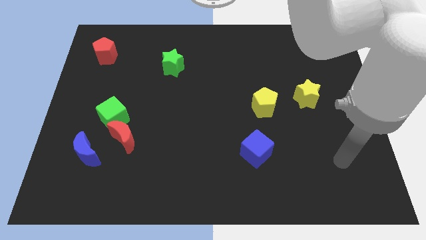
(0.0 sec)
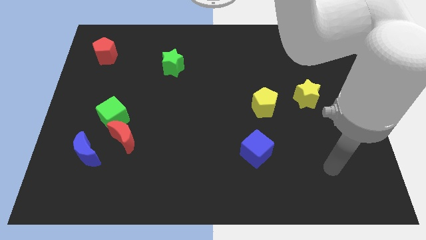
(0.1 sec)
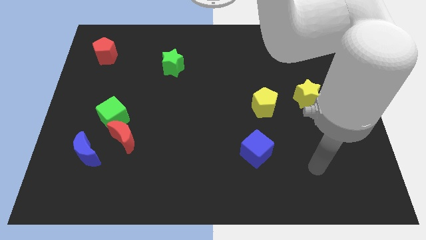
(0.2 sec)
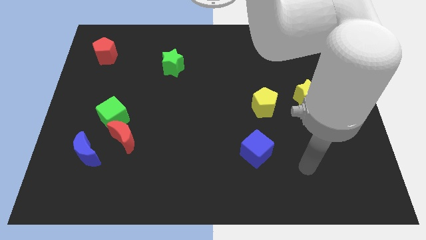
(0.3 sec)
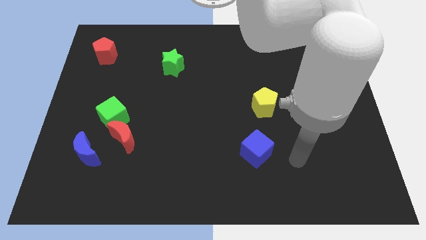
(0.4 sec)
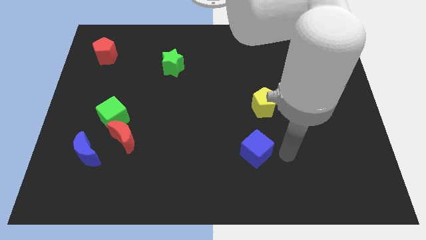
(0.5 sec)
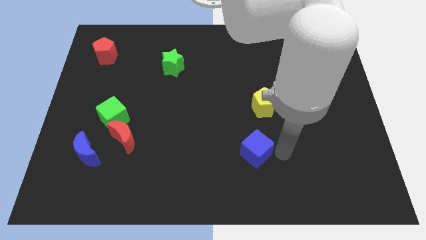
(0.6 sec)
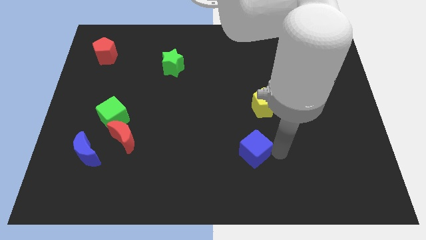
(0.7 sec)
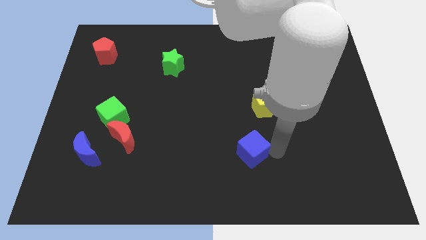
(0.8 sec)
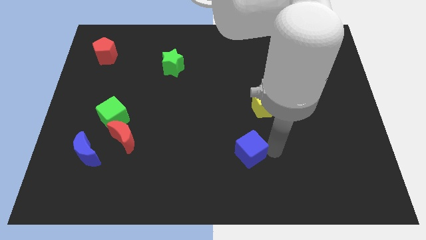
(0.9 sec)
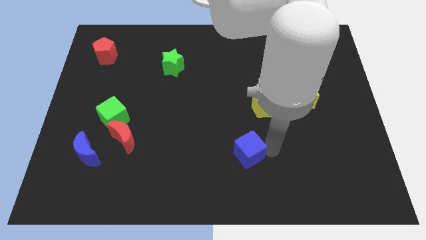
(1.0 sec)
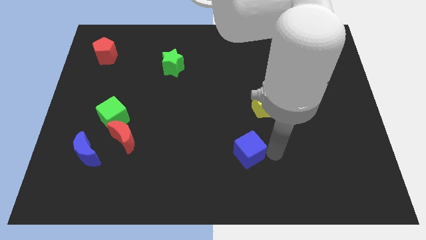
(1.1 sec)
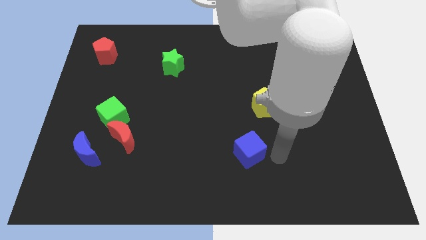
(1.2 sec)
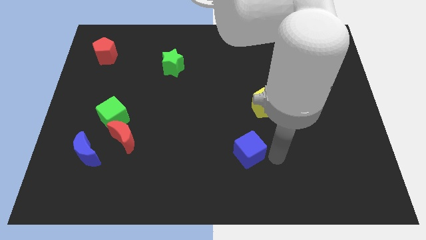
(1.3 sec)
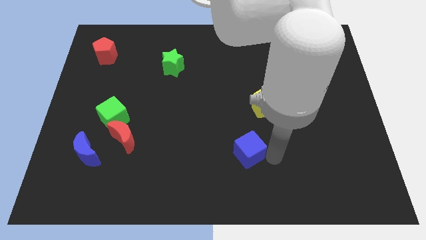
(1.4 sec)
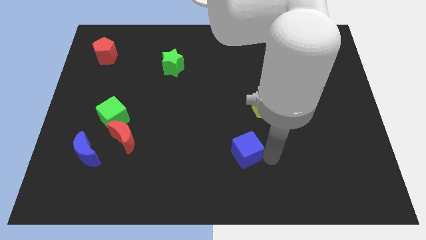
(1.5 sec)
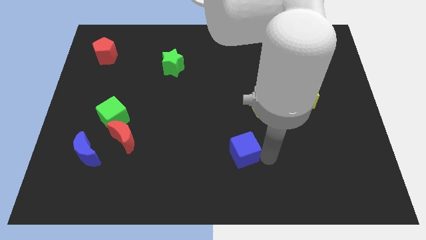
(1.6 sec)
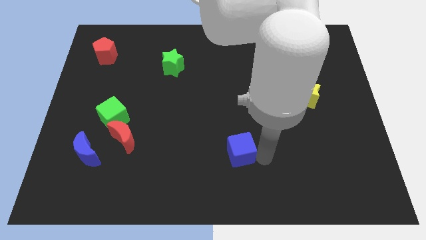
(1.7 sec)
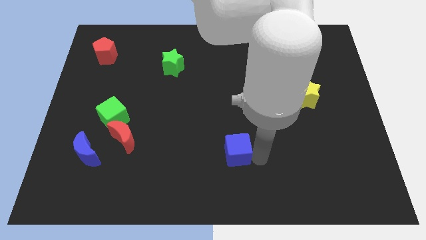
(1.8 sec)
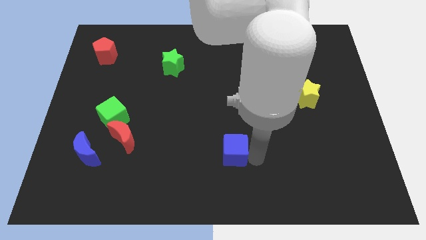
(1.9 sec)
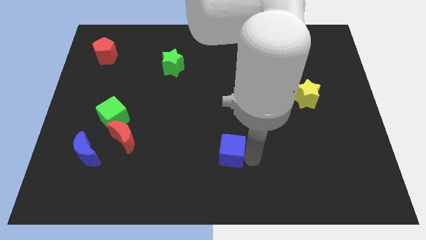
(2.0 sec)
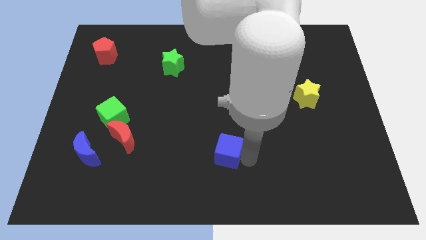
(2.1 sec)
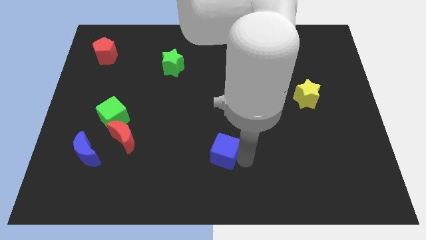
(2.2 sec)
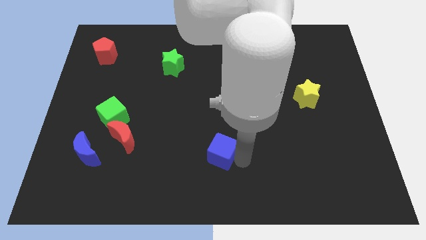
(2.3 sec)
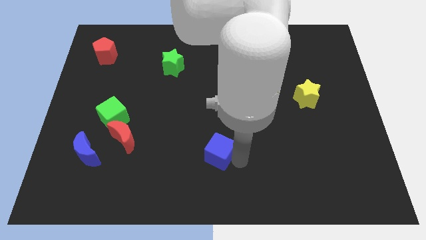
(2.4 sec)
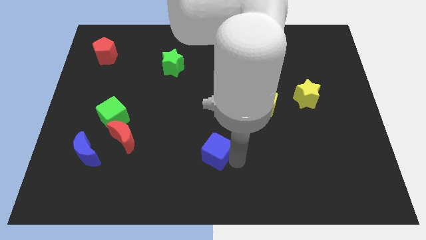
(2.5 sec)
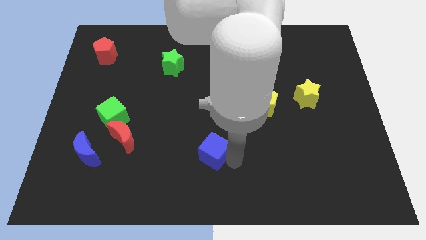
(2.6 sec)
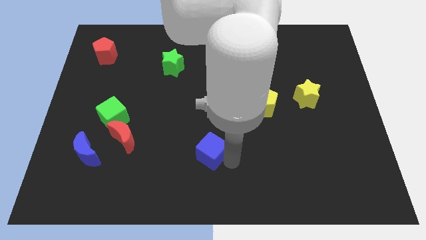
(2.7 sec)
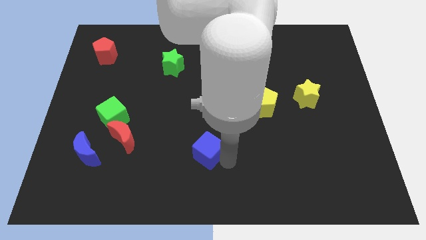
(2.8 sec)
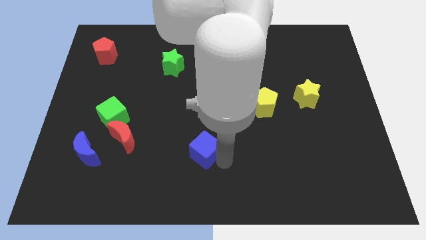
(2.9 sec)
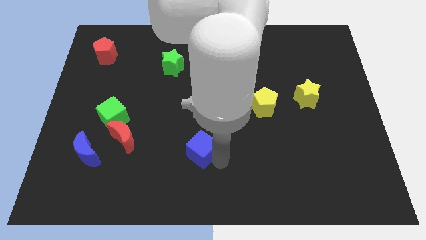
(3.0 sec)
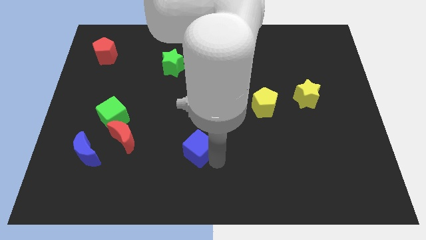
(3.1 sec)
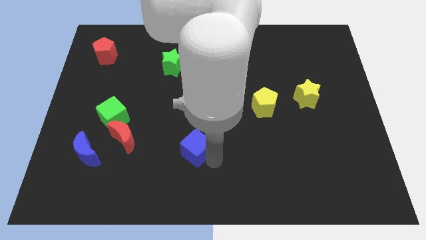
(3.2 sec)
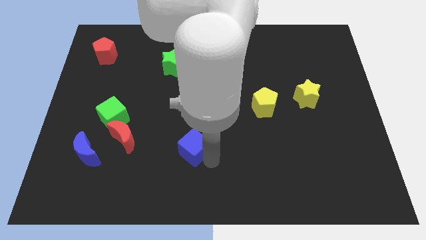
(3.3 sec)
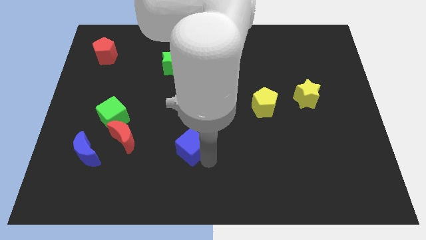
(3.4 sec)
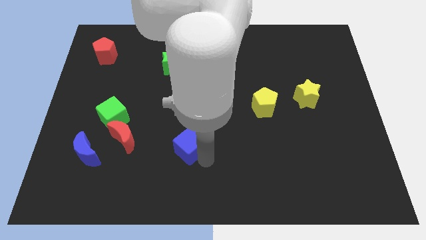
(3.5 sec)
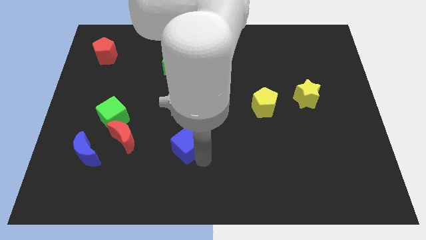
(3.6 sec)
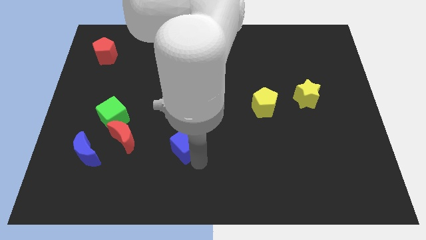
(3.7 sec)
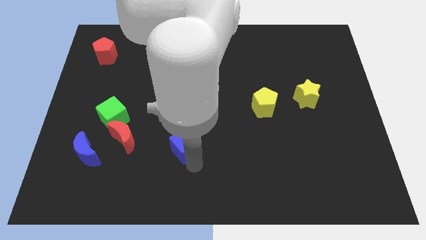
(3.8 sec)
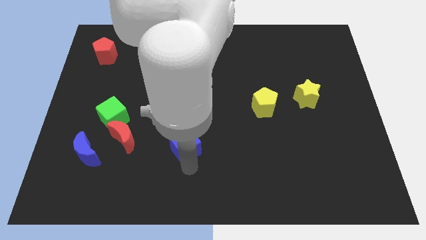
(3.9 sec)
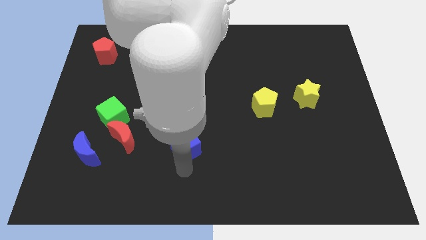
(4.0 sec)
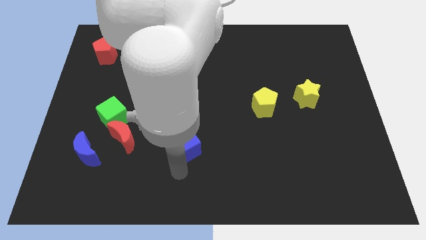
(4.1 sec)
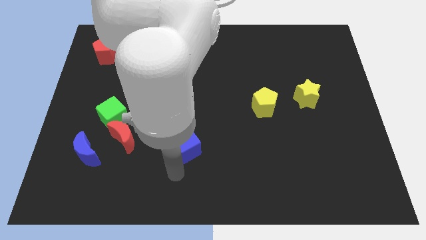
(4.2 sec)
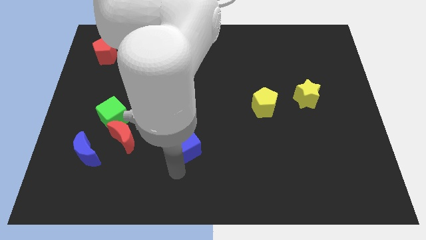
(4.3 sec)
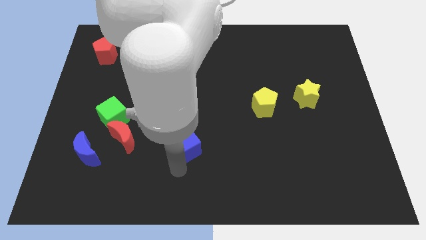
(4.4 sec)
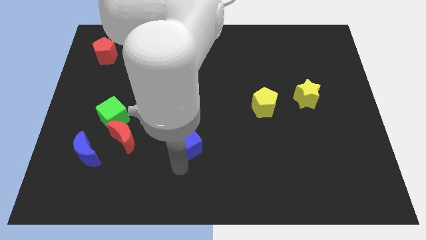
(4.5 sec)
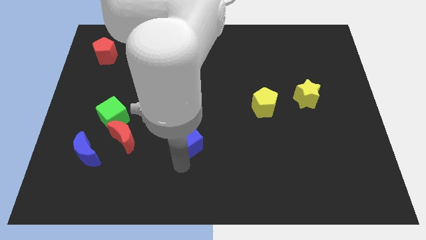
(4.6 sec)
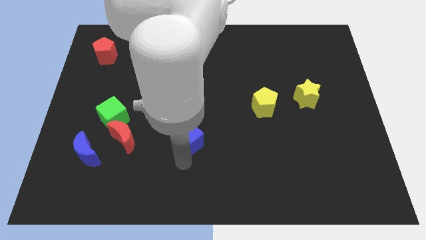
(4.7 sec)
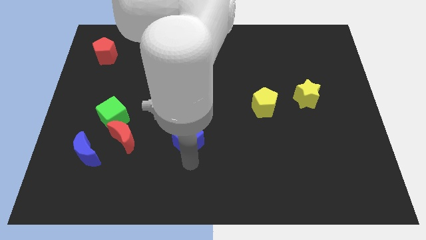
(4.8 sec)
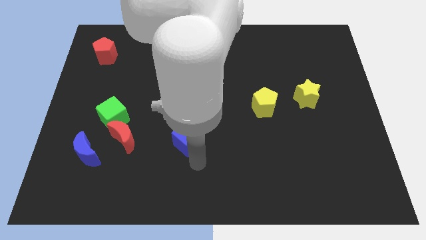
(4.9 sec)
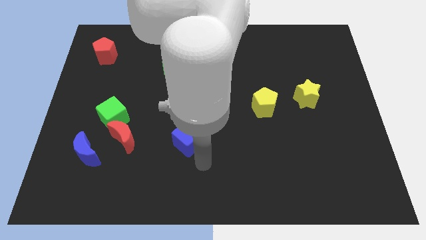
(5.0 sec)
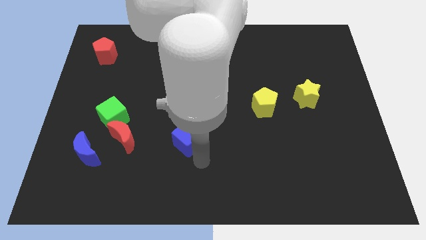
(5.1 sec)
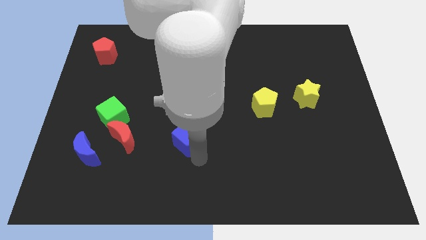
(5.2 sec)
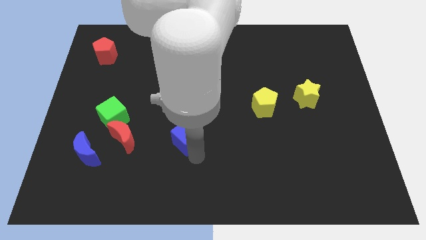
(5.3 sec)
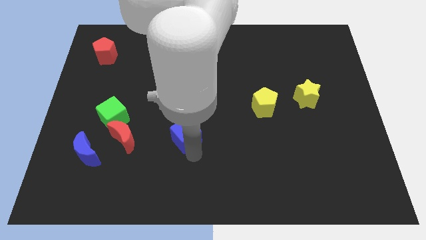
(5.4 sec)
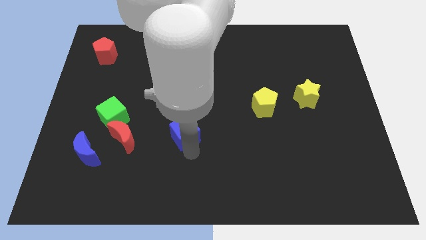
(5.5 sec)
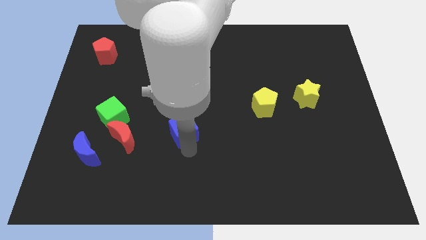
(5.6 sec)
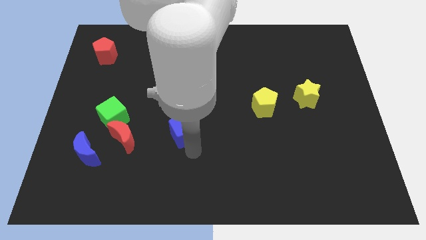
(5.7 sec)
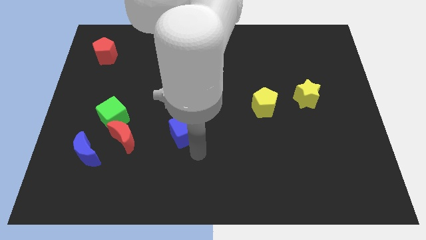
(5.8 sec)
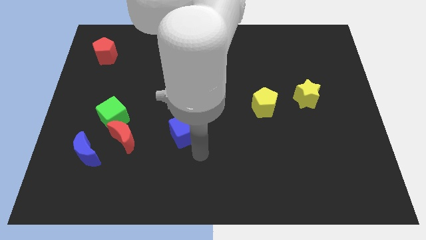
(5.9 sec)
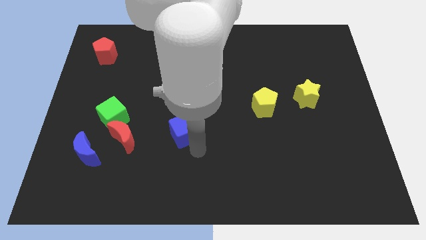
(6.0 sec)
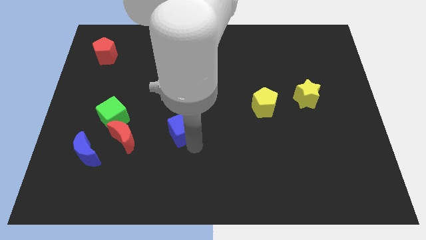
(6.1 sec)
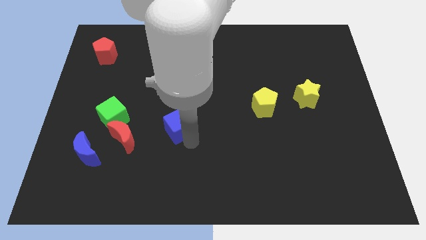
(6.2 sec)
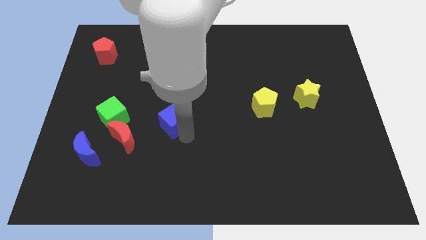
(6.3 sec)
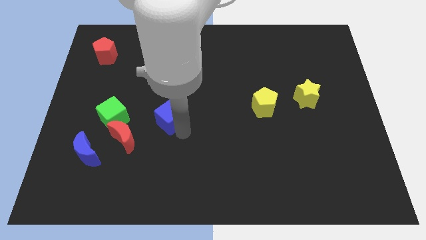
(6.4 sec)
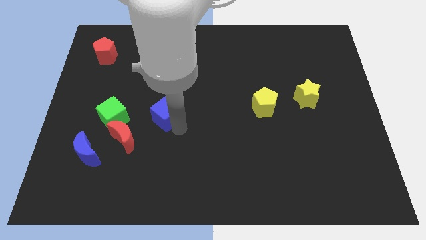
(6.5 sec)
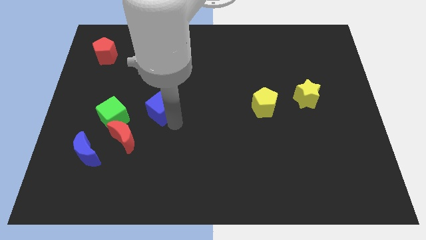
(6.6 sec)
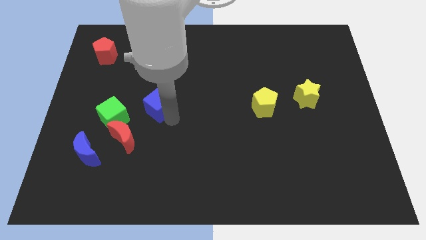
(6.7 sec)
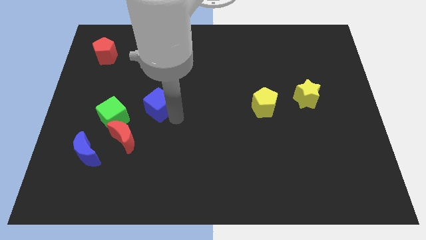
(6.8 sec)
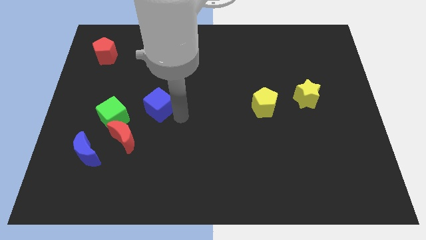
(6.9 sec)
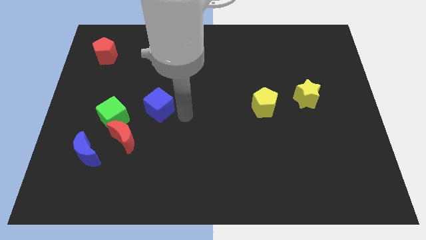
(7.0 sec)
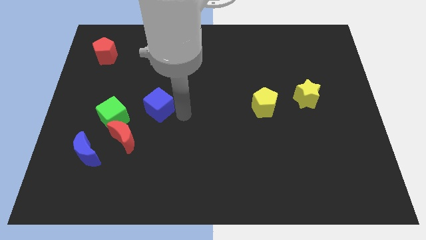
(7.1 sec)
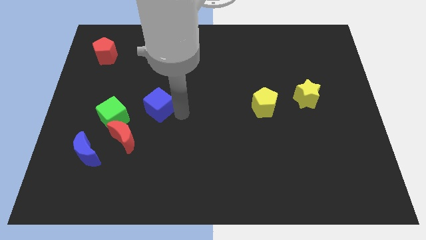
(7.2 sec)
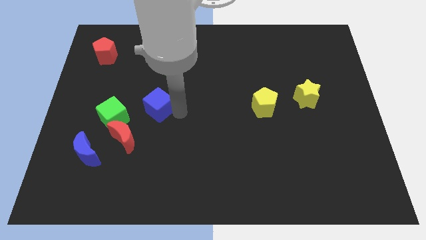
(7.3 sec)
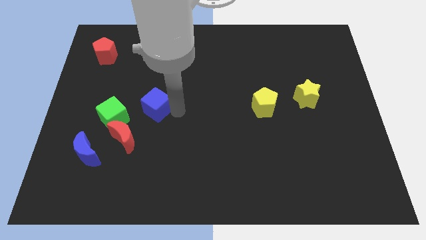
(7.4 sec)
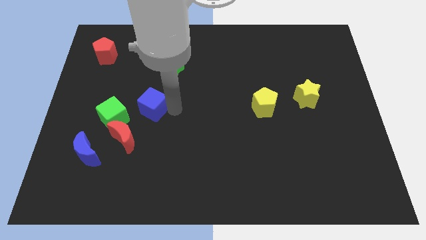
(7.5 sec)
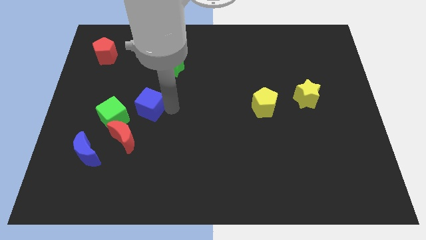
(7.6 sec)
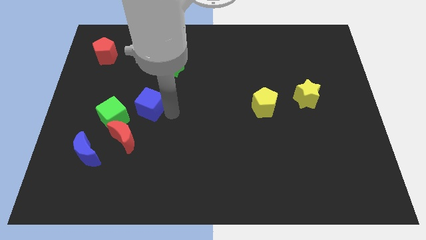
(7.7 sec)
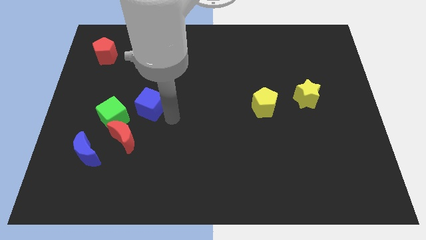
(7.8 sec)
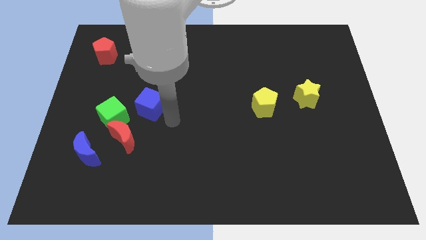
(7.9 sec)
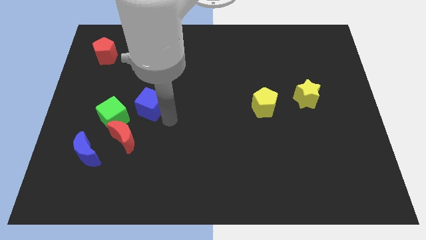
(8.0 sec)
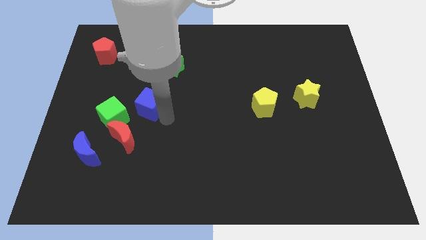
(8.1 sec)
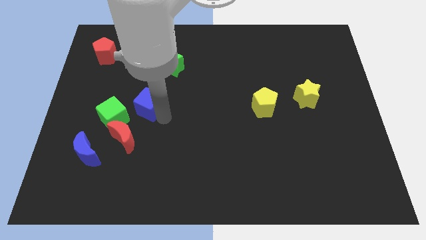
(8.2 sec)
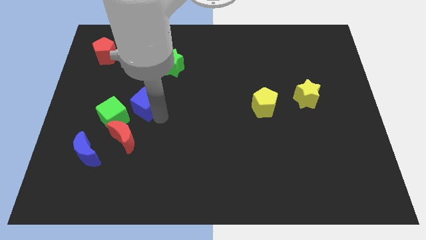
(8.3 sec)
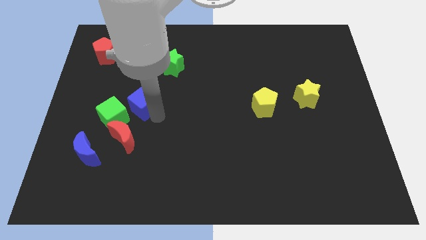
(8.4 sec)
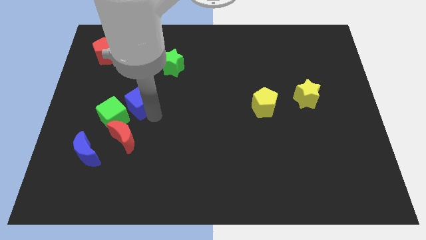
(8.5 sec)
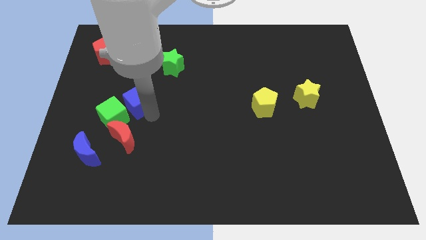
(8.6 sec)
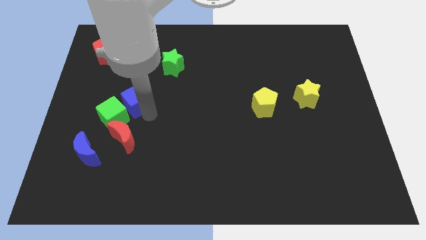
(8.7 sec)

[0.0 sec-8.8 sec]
put the blue cube above the green cube
